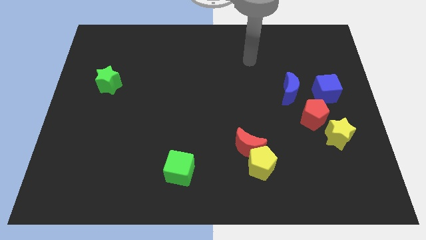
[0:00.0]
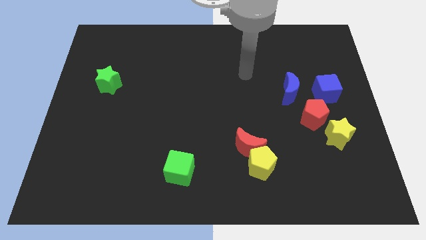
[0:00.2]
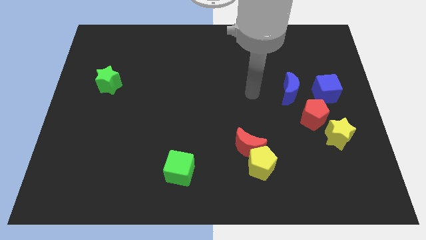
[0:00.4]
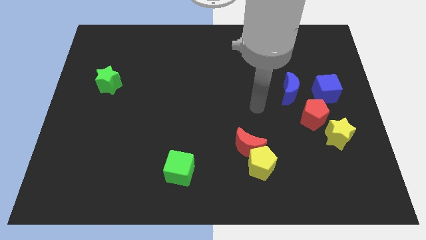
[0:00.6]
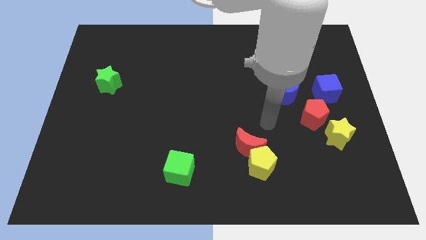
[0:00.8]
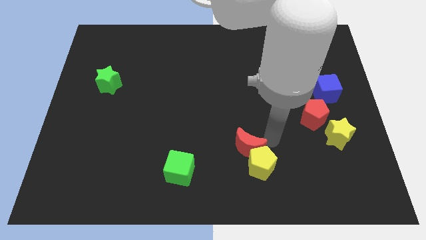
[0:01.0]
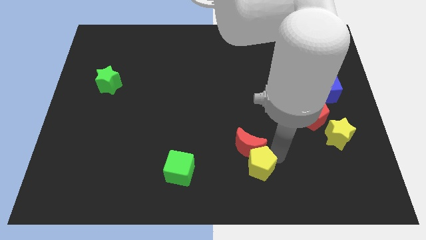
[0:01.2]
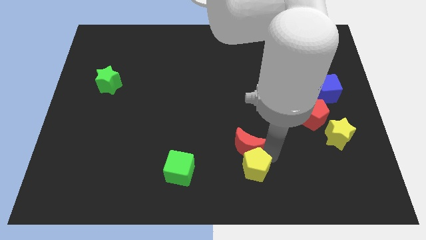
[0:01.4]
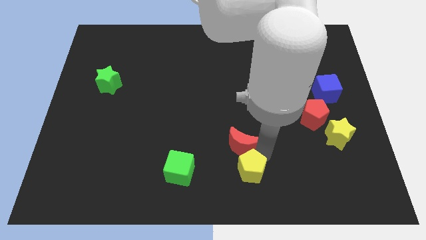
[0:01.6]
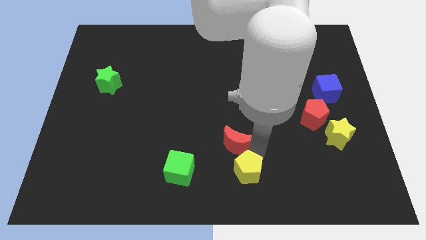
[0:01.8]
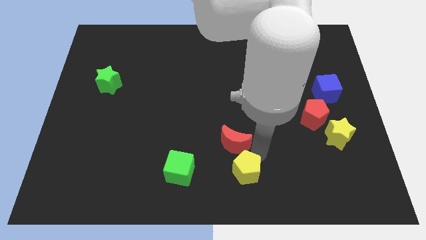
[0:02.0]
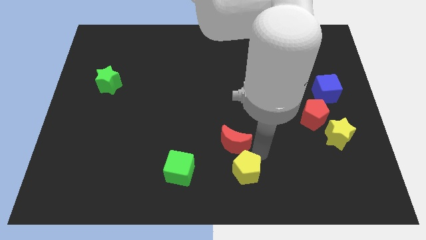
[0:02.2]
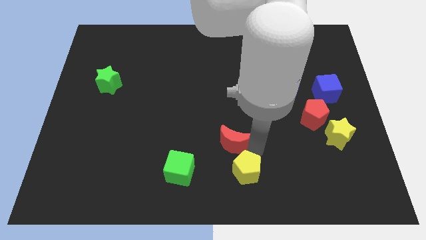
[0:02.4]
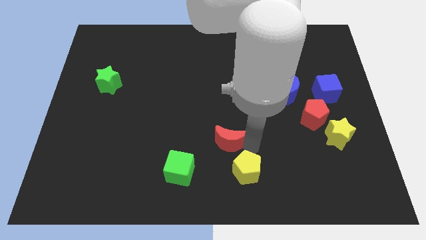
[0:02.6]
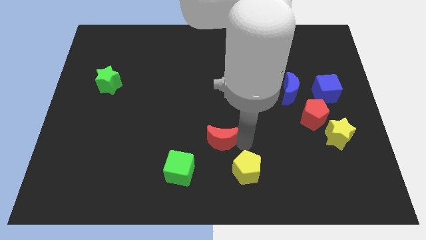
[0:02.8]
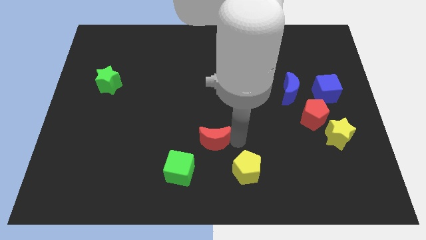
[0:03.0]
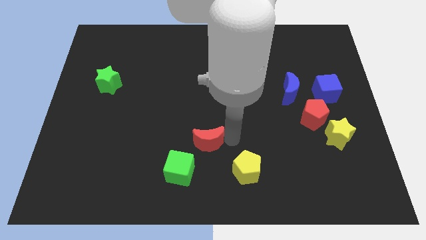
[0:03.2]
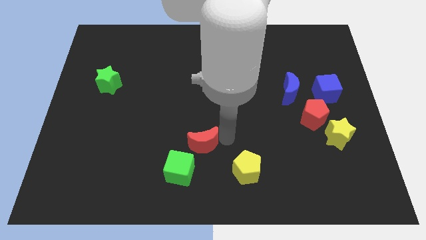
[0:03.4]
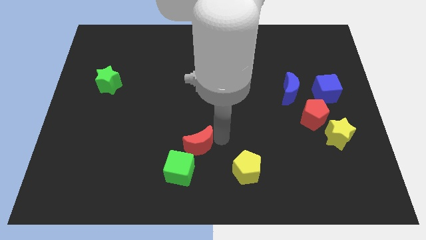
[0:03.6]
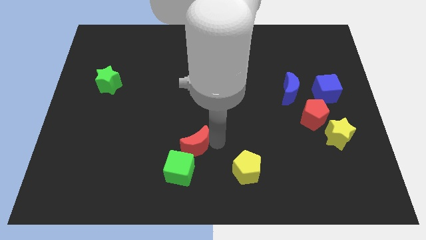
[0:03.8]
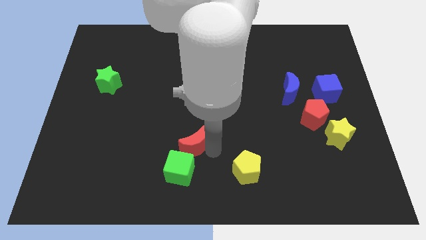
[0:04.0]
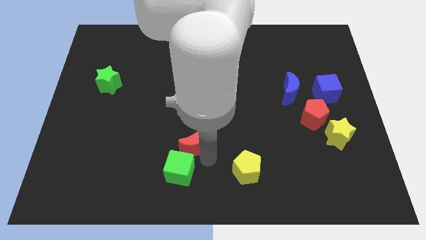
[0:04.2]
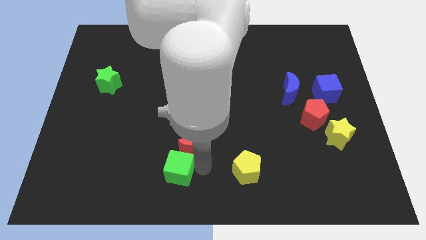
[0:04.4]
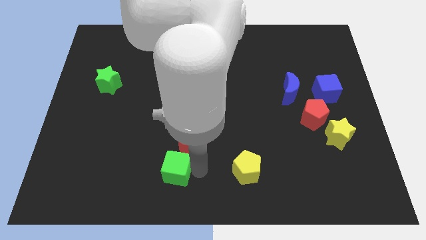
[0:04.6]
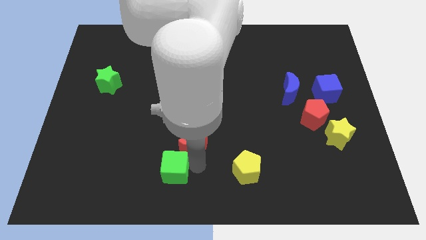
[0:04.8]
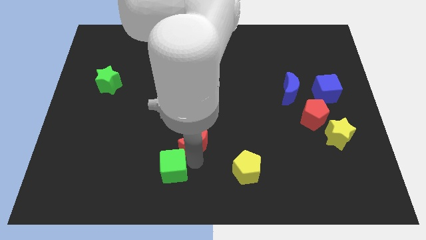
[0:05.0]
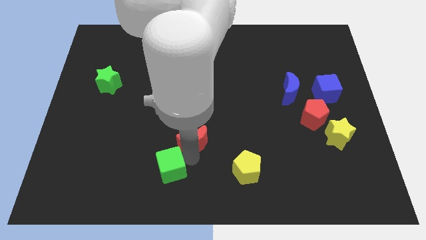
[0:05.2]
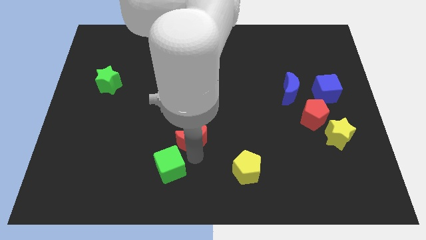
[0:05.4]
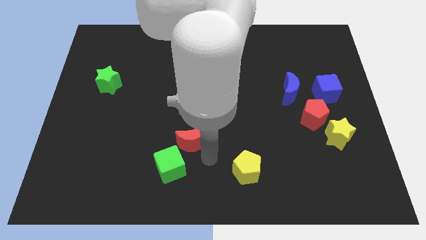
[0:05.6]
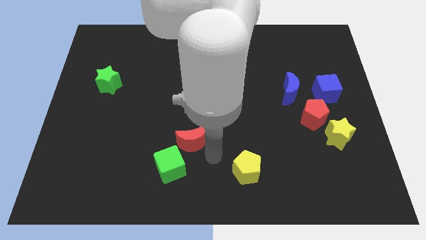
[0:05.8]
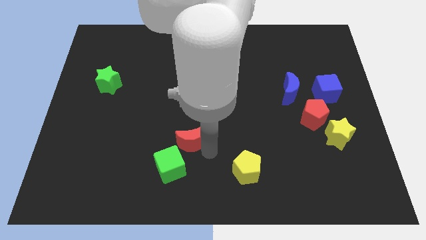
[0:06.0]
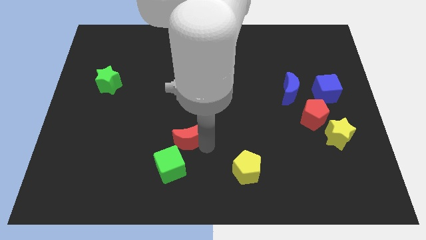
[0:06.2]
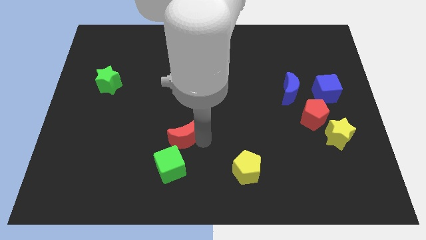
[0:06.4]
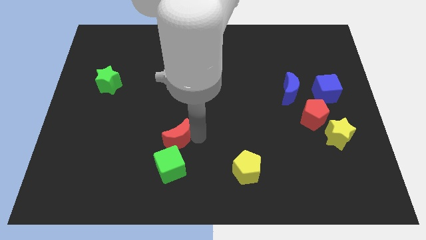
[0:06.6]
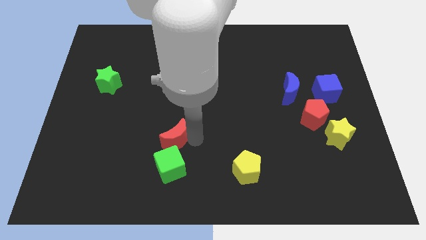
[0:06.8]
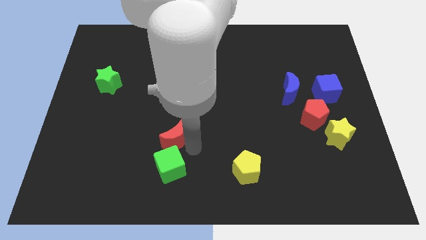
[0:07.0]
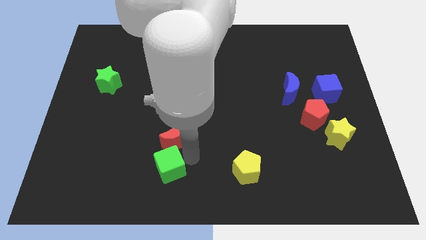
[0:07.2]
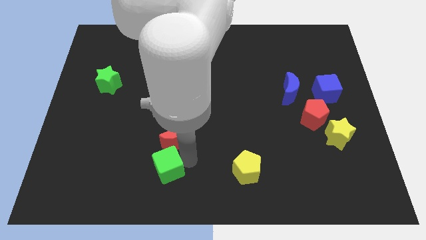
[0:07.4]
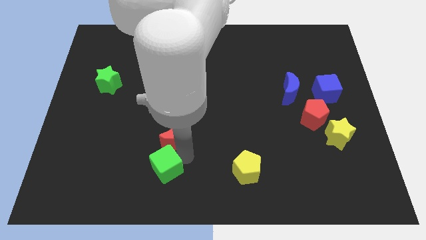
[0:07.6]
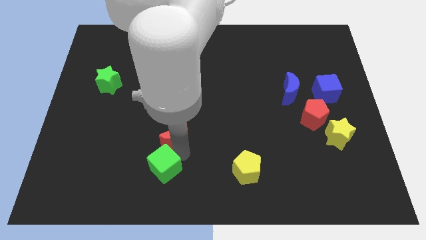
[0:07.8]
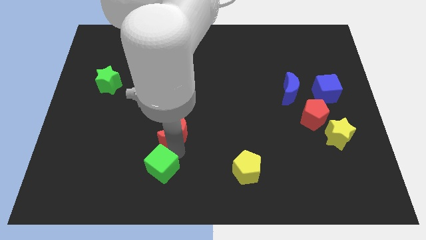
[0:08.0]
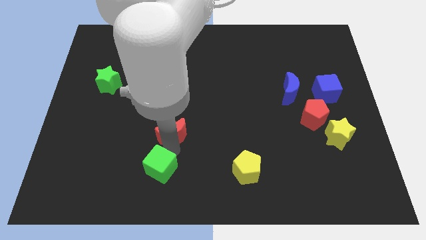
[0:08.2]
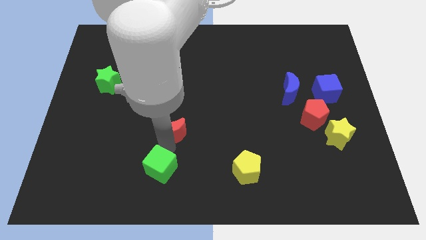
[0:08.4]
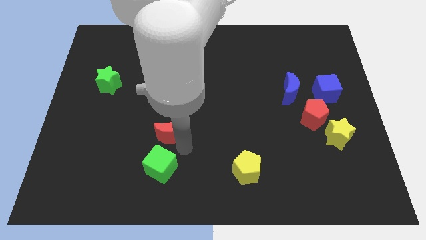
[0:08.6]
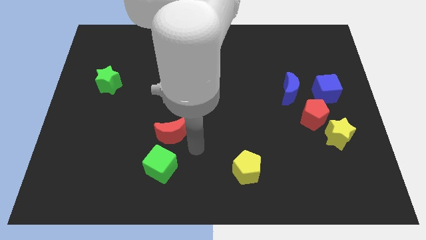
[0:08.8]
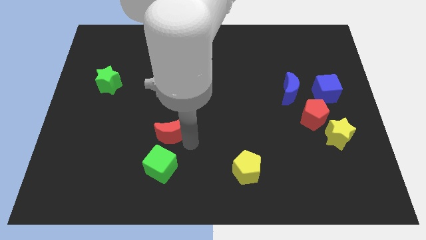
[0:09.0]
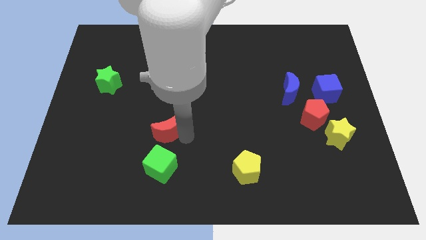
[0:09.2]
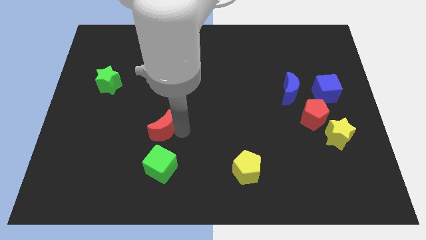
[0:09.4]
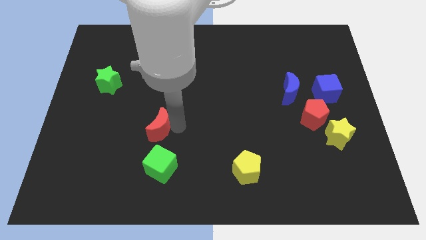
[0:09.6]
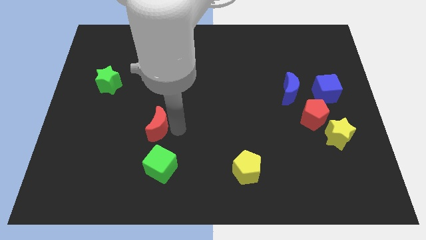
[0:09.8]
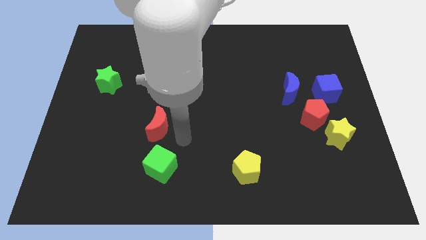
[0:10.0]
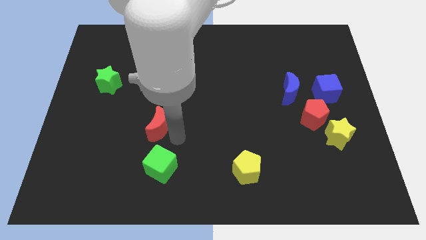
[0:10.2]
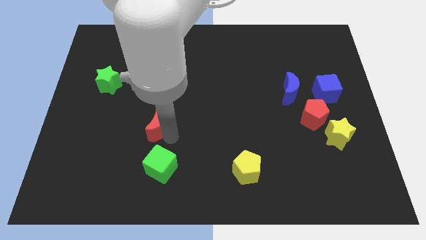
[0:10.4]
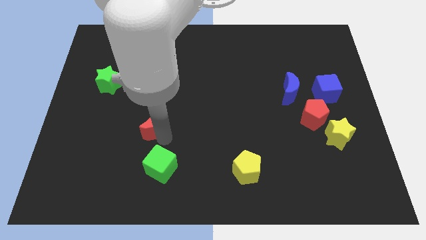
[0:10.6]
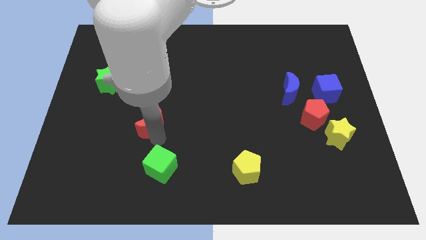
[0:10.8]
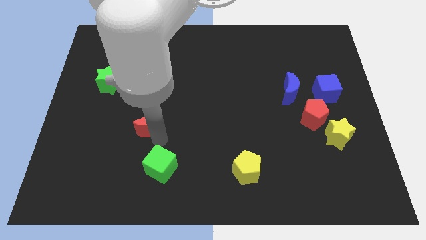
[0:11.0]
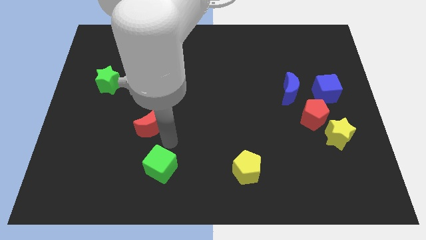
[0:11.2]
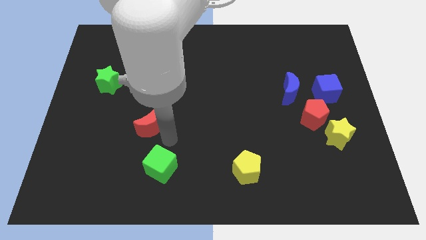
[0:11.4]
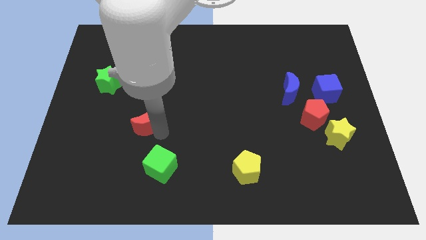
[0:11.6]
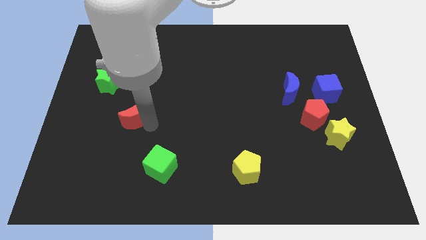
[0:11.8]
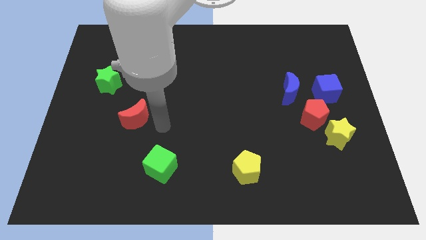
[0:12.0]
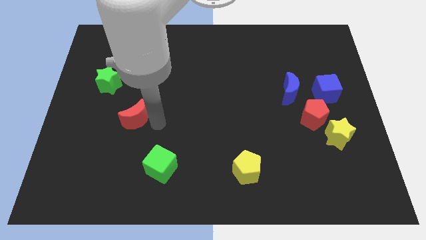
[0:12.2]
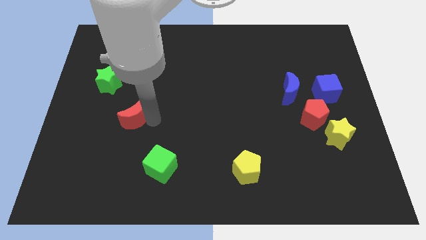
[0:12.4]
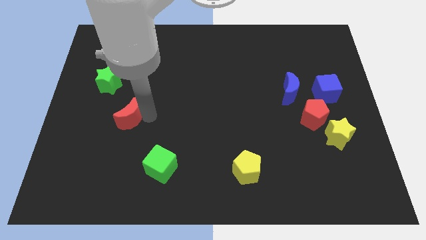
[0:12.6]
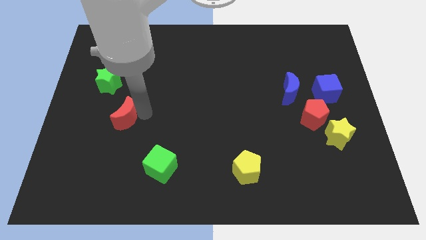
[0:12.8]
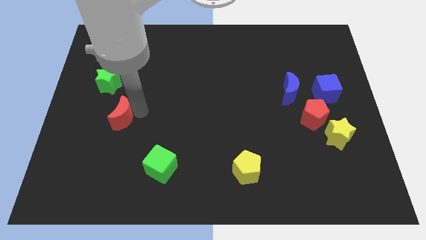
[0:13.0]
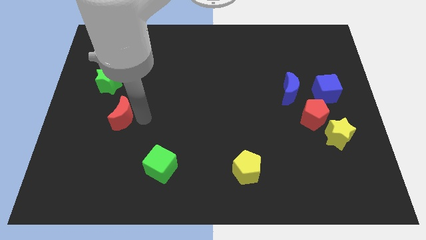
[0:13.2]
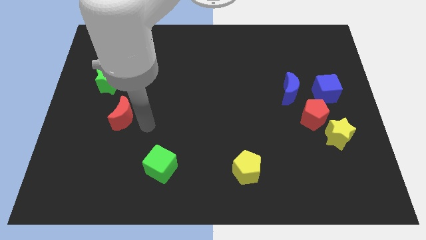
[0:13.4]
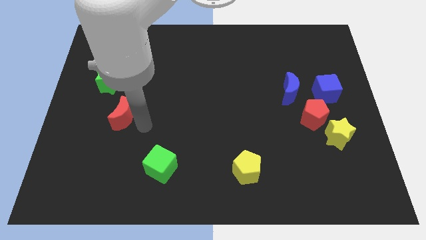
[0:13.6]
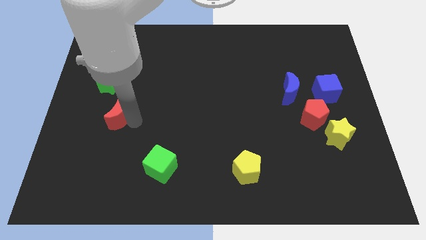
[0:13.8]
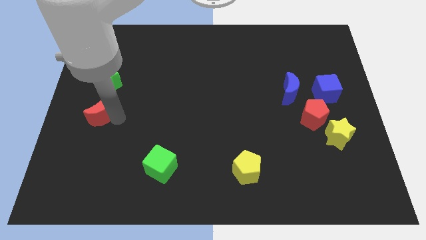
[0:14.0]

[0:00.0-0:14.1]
move the red moon to the center left
